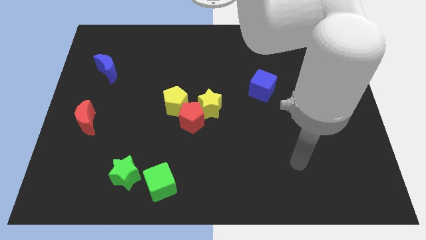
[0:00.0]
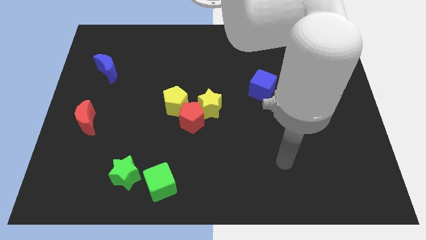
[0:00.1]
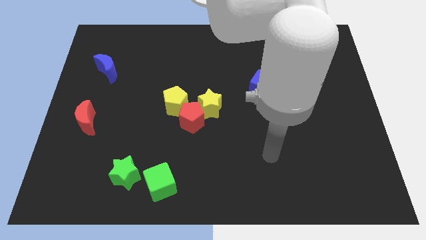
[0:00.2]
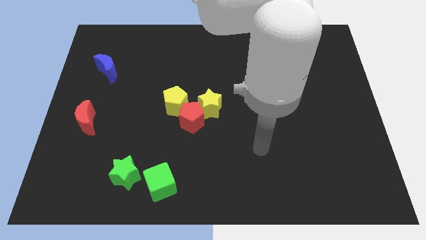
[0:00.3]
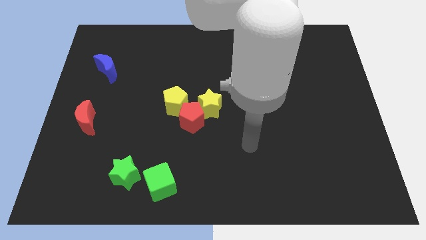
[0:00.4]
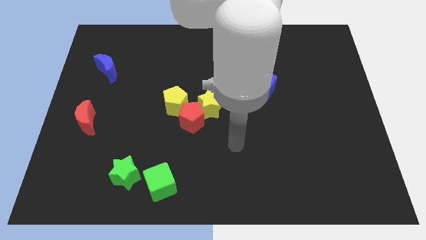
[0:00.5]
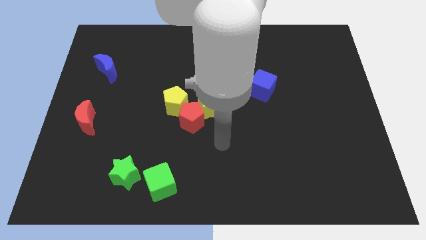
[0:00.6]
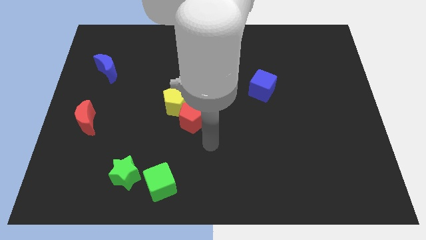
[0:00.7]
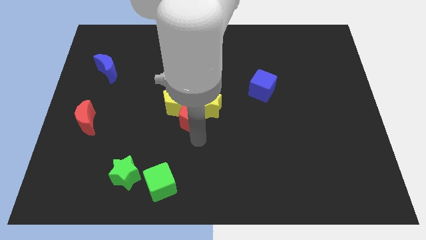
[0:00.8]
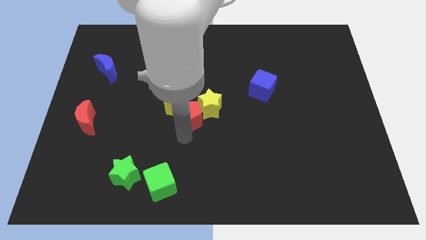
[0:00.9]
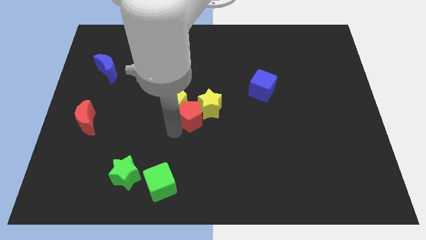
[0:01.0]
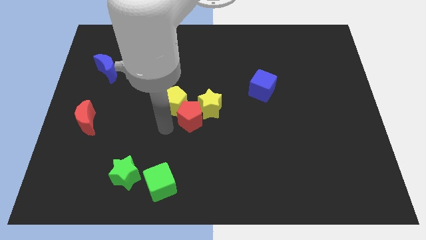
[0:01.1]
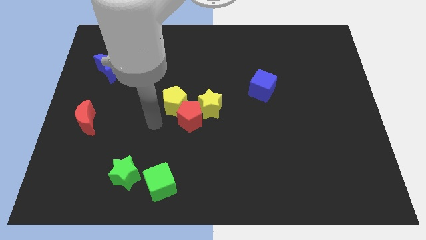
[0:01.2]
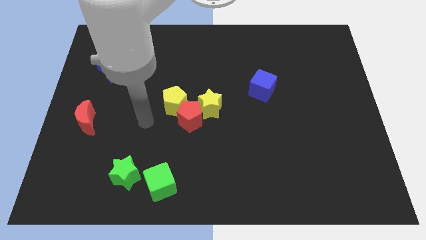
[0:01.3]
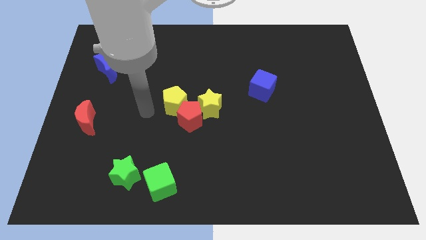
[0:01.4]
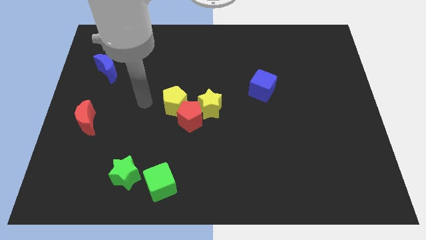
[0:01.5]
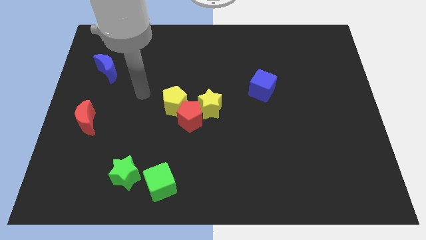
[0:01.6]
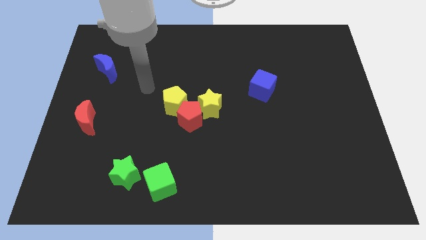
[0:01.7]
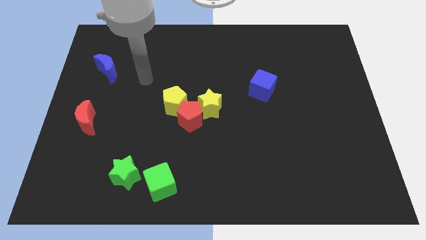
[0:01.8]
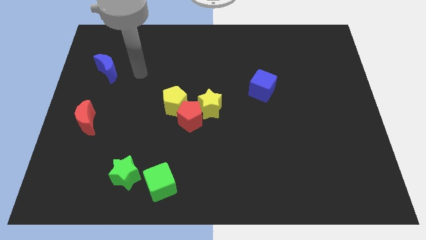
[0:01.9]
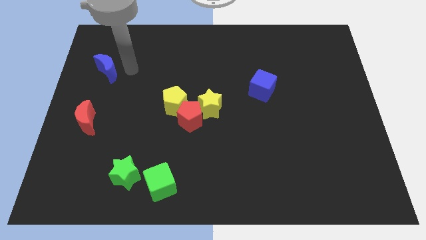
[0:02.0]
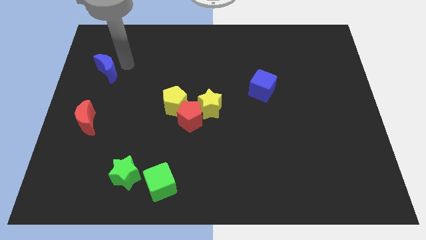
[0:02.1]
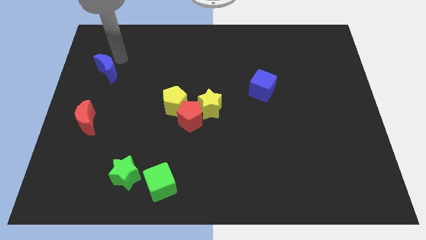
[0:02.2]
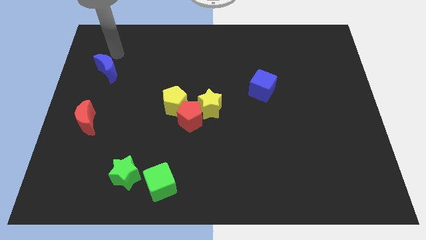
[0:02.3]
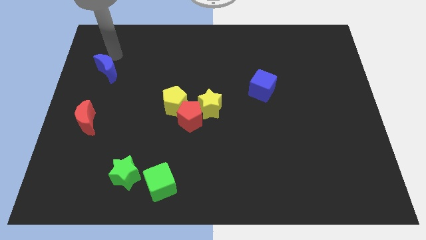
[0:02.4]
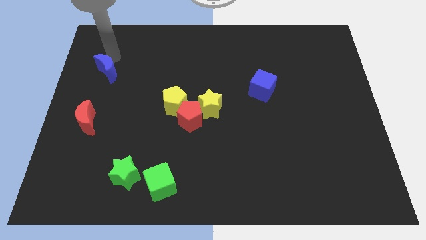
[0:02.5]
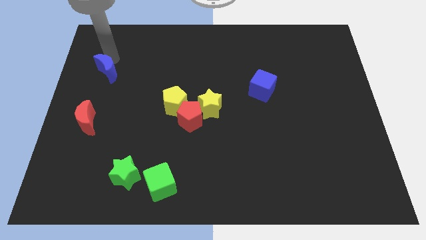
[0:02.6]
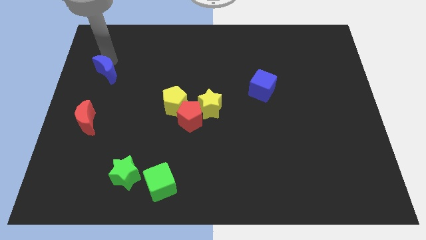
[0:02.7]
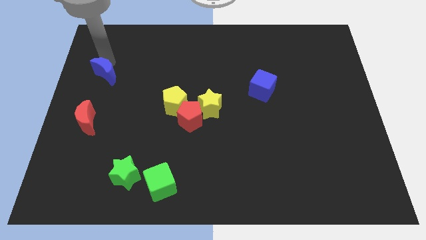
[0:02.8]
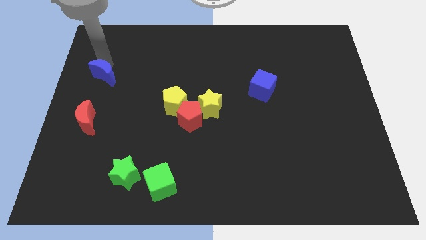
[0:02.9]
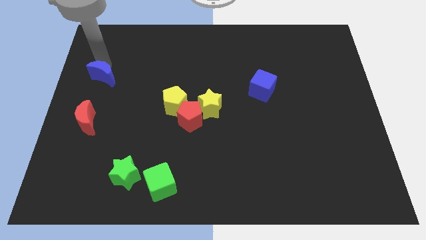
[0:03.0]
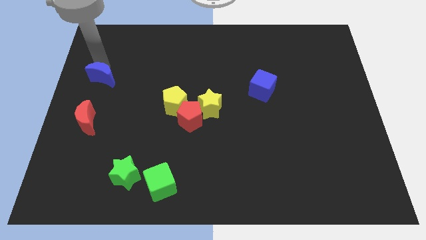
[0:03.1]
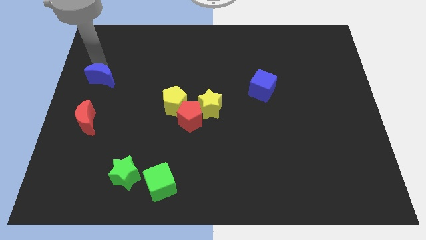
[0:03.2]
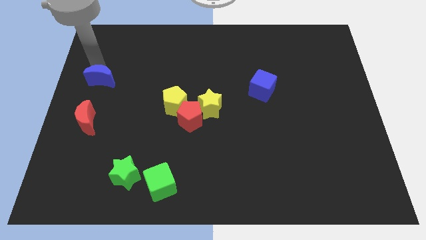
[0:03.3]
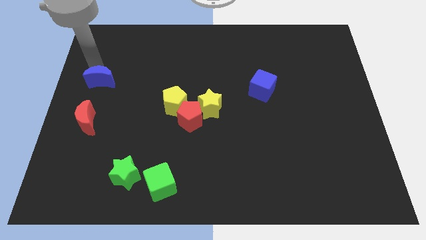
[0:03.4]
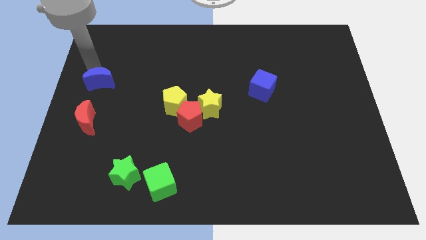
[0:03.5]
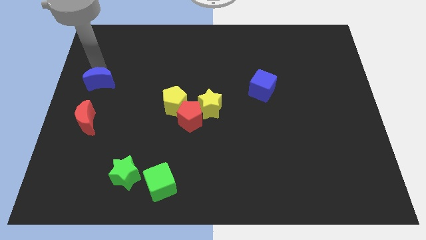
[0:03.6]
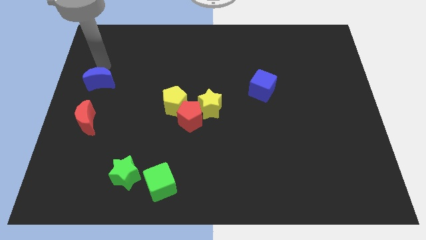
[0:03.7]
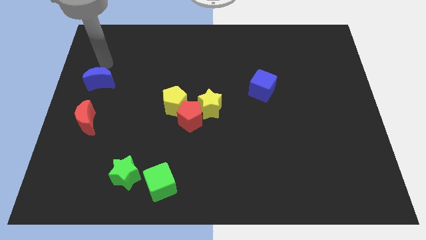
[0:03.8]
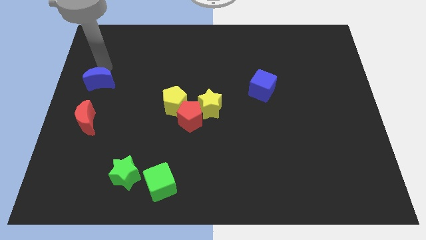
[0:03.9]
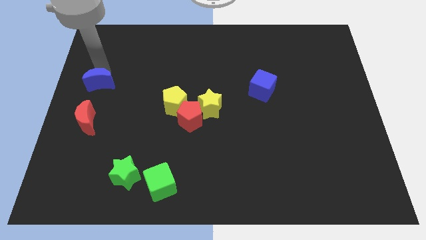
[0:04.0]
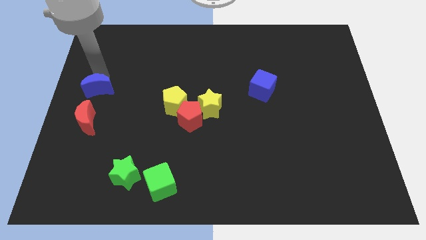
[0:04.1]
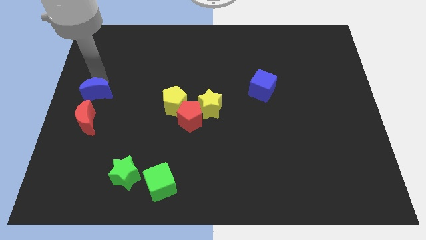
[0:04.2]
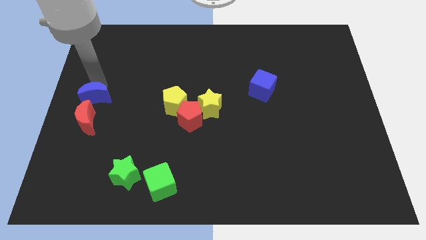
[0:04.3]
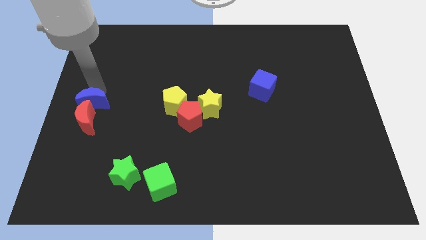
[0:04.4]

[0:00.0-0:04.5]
slide the blue moon close to the red moon

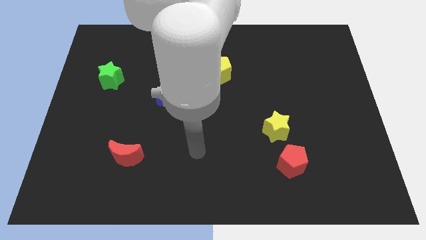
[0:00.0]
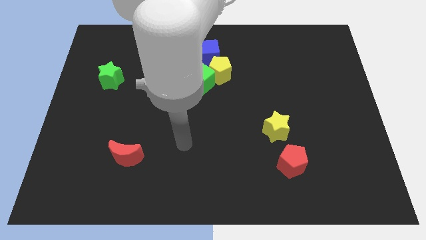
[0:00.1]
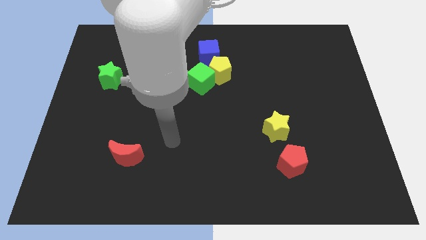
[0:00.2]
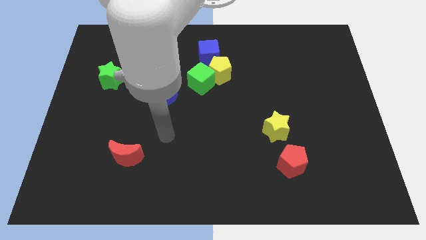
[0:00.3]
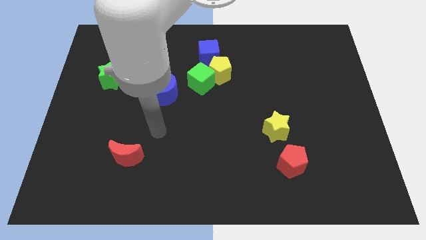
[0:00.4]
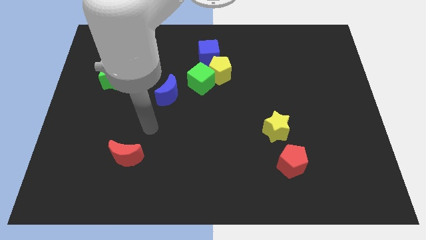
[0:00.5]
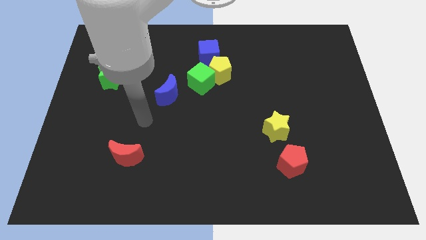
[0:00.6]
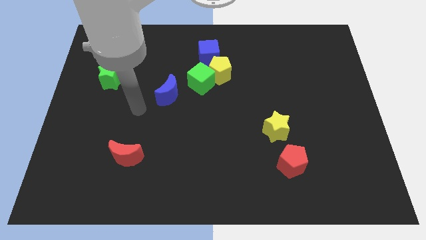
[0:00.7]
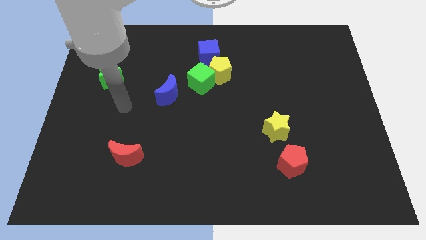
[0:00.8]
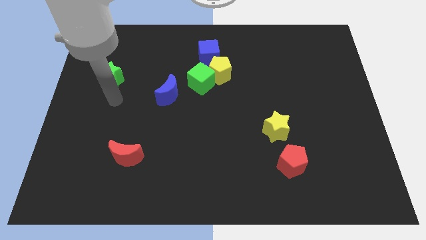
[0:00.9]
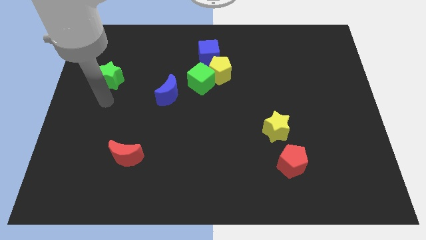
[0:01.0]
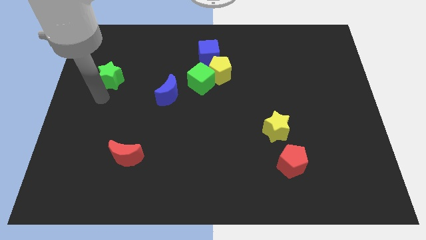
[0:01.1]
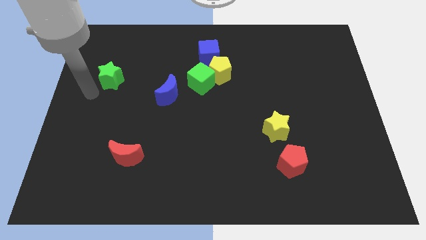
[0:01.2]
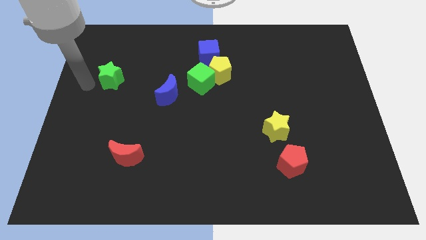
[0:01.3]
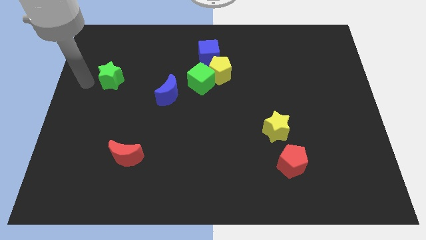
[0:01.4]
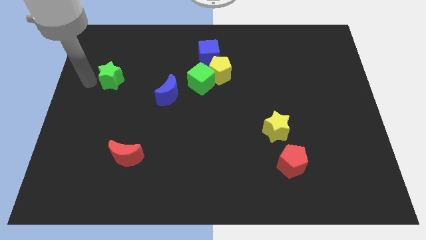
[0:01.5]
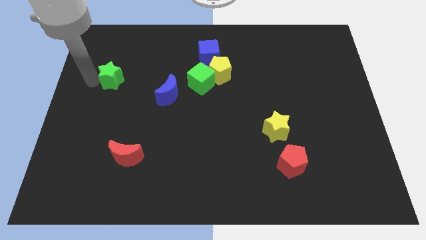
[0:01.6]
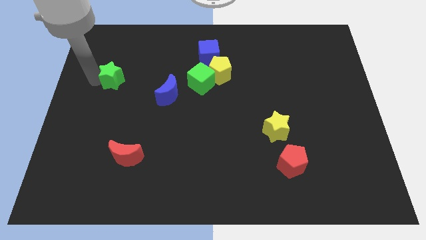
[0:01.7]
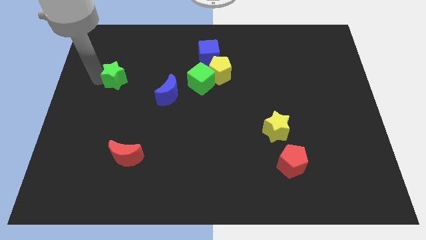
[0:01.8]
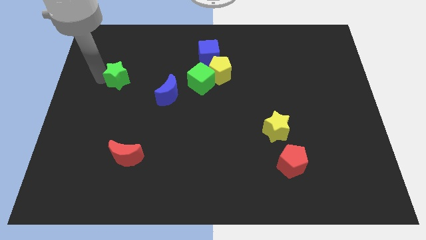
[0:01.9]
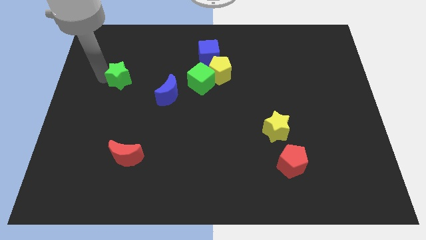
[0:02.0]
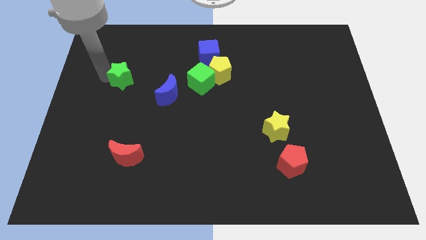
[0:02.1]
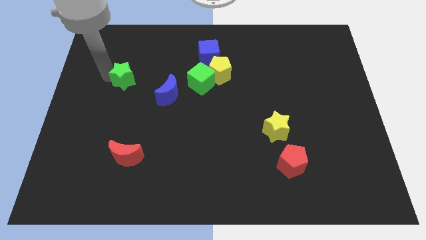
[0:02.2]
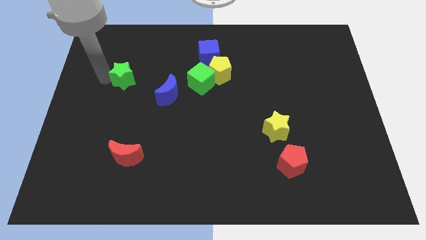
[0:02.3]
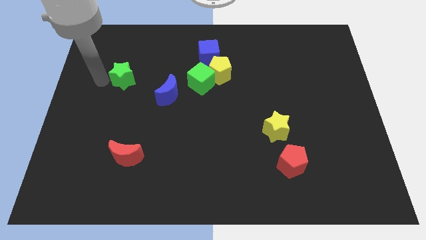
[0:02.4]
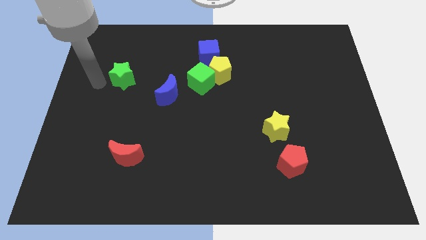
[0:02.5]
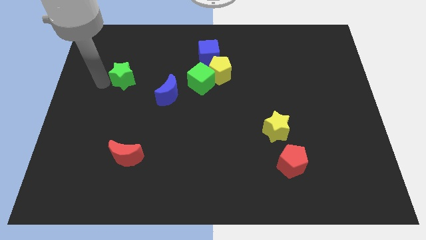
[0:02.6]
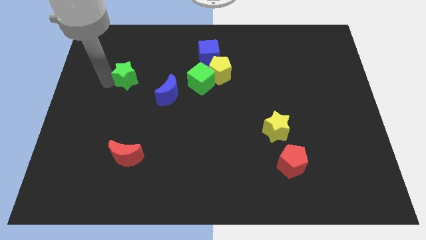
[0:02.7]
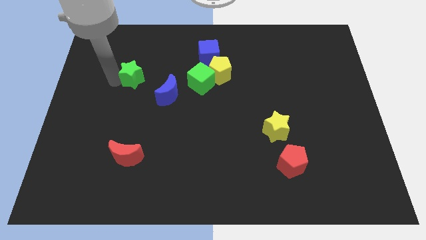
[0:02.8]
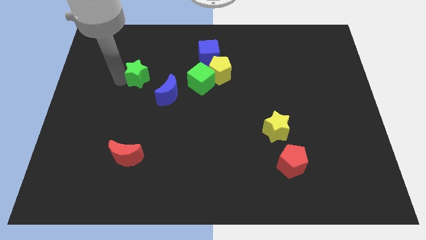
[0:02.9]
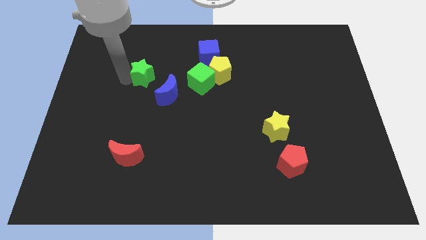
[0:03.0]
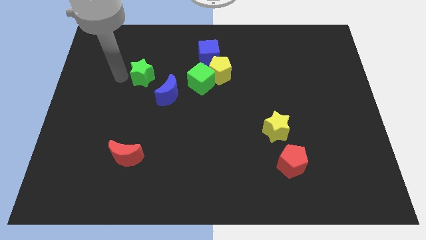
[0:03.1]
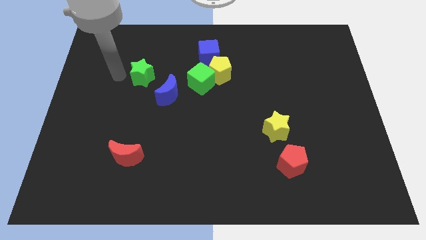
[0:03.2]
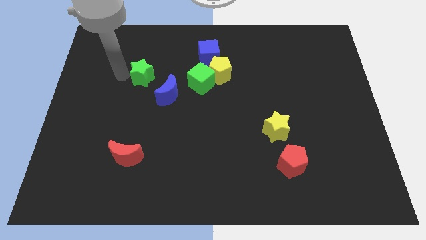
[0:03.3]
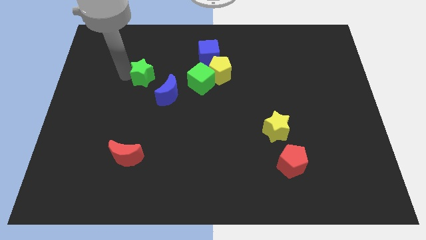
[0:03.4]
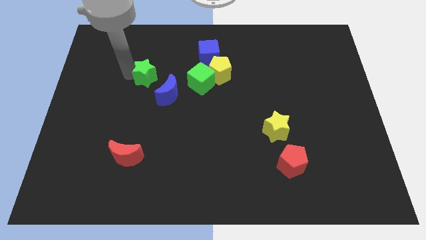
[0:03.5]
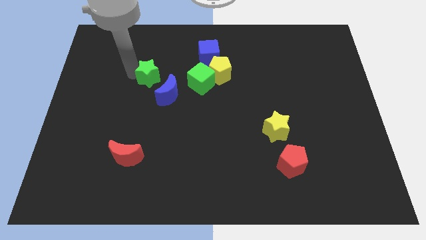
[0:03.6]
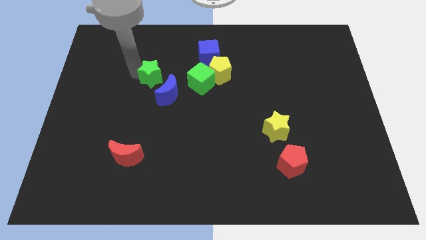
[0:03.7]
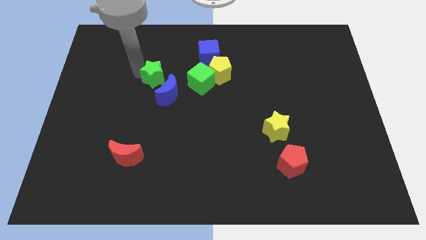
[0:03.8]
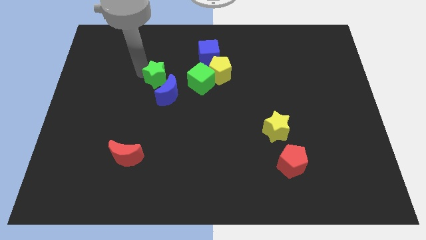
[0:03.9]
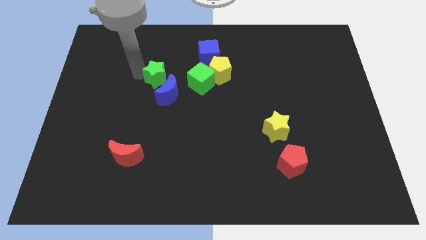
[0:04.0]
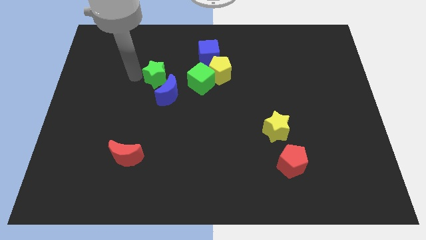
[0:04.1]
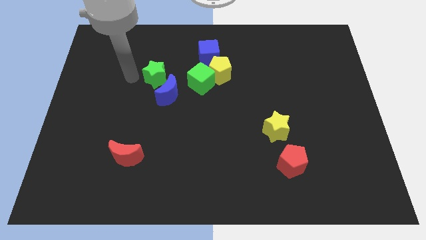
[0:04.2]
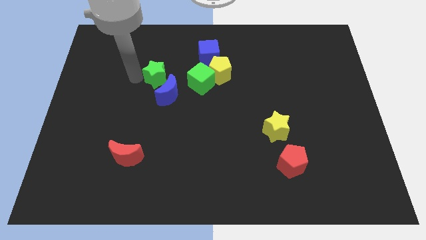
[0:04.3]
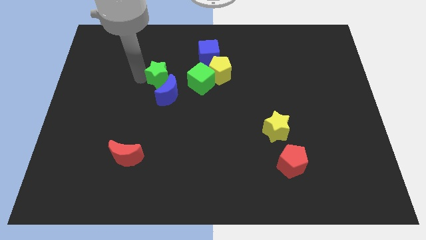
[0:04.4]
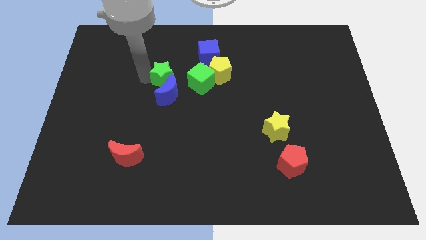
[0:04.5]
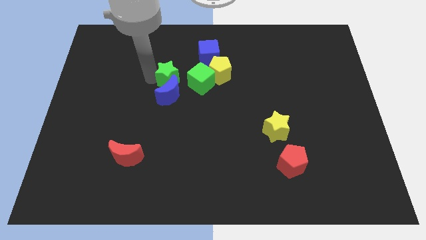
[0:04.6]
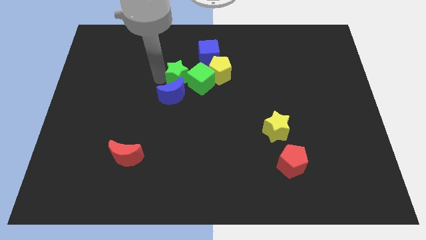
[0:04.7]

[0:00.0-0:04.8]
push the green star towards the green cube
